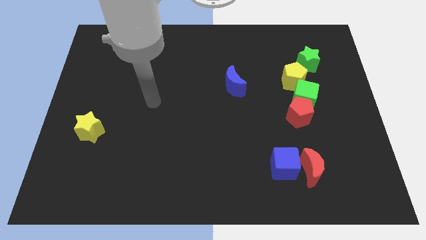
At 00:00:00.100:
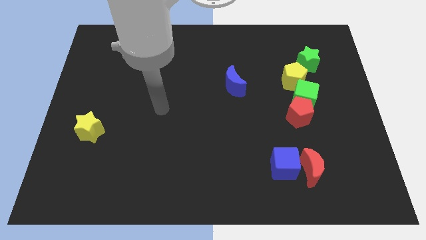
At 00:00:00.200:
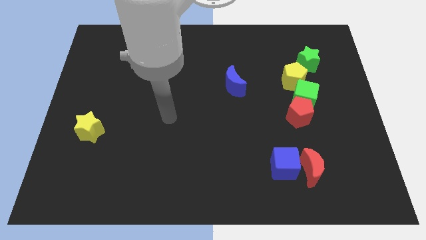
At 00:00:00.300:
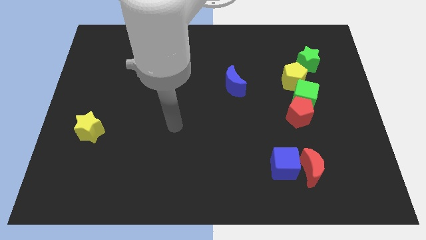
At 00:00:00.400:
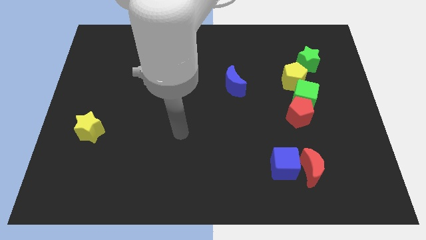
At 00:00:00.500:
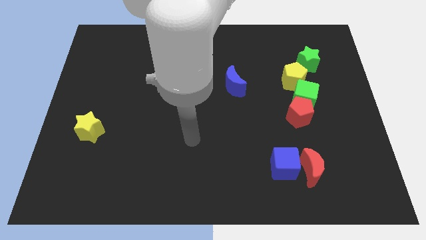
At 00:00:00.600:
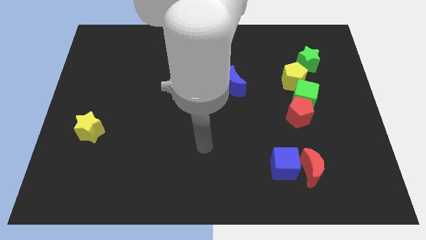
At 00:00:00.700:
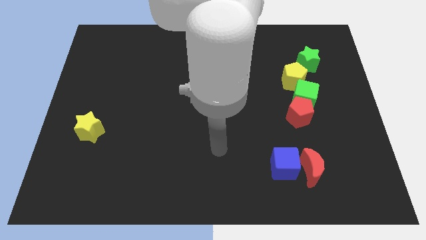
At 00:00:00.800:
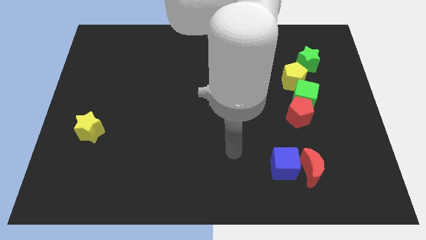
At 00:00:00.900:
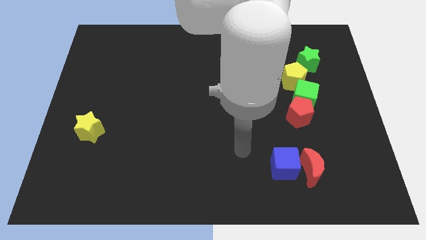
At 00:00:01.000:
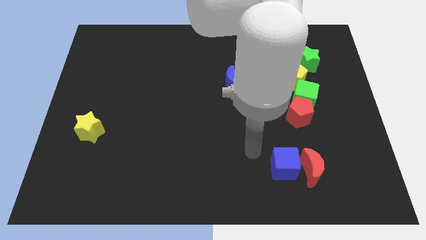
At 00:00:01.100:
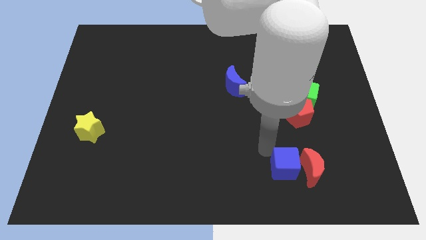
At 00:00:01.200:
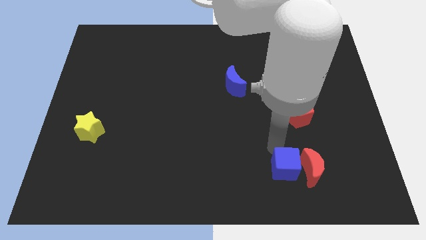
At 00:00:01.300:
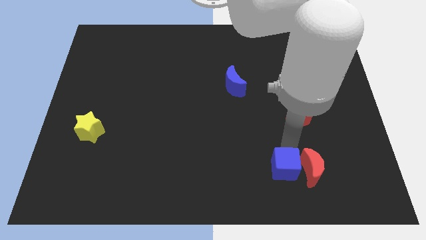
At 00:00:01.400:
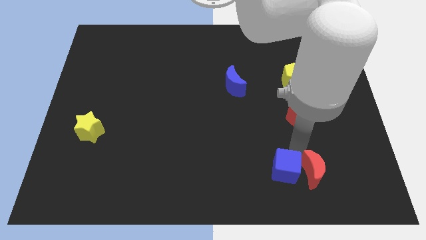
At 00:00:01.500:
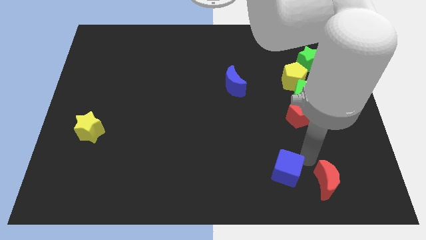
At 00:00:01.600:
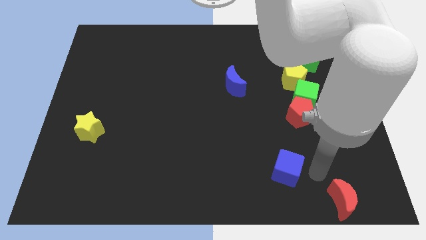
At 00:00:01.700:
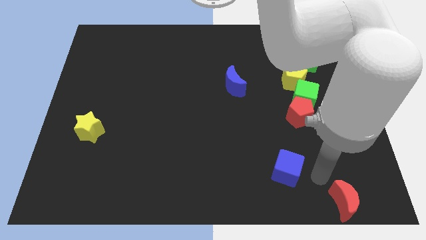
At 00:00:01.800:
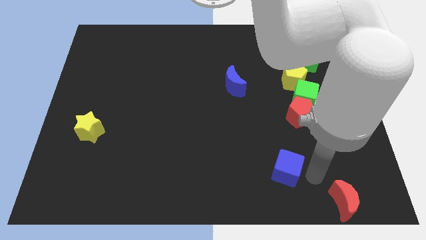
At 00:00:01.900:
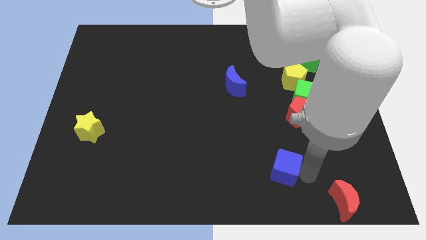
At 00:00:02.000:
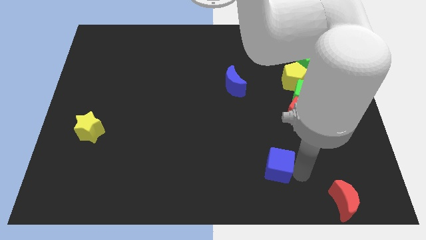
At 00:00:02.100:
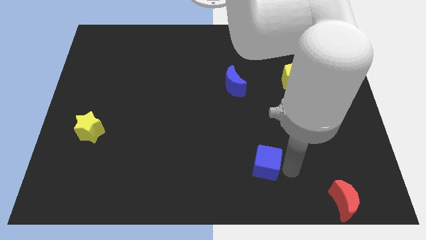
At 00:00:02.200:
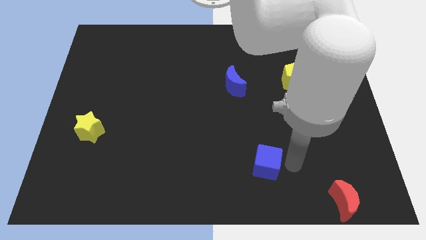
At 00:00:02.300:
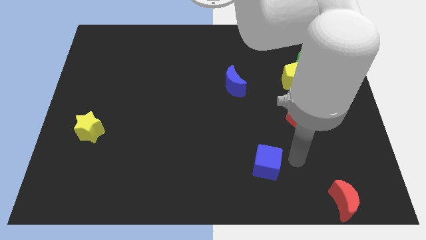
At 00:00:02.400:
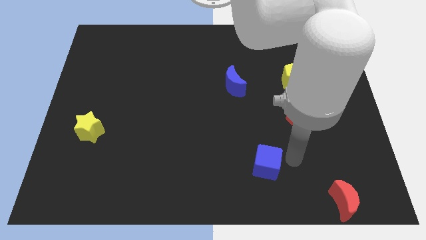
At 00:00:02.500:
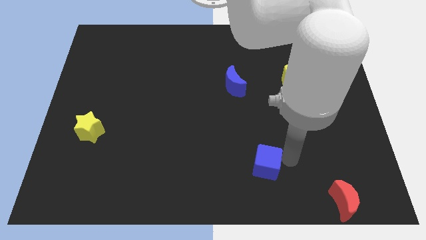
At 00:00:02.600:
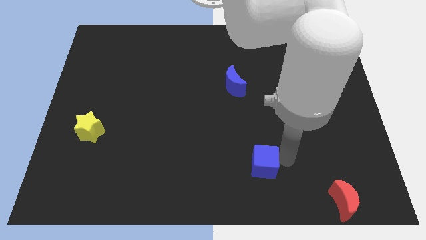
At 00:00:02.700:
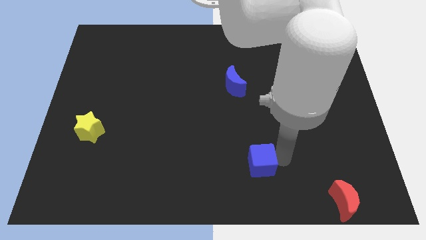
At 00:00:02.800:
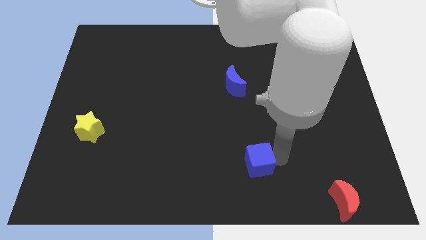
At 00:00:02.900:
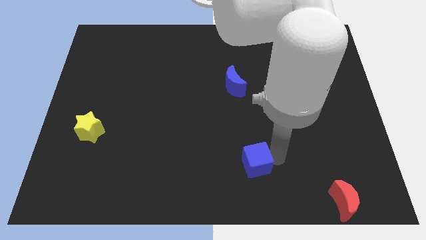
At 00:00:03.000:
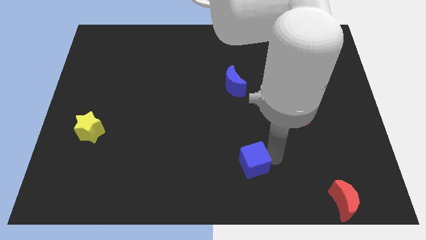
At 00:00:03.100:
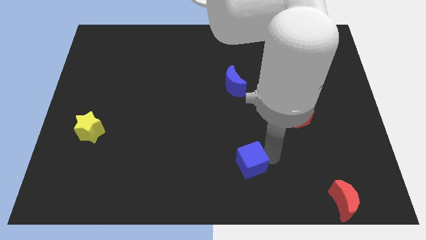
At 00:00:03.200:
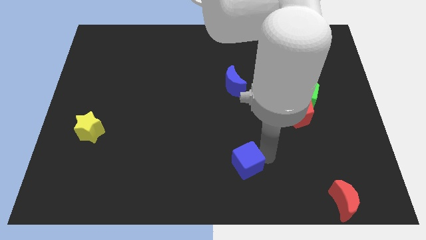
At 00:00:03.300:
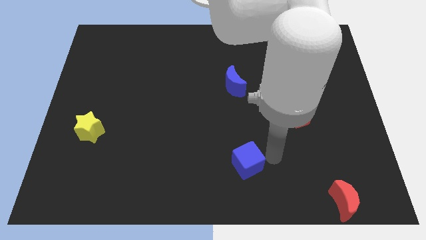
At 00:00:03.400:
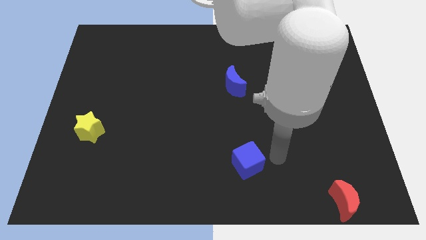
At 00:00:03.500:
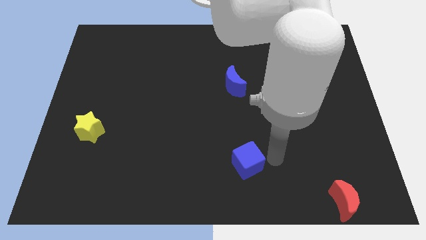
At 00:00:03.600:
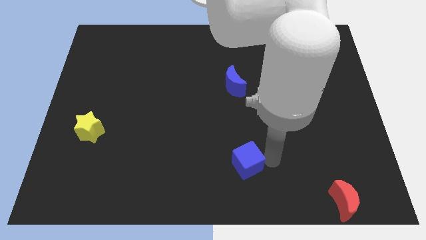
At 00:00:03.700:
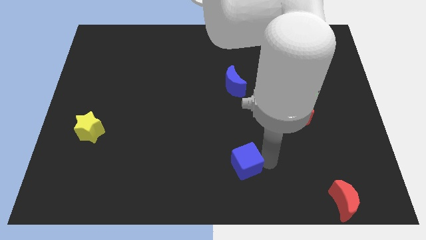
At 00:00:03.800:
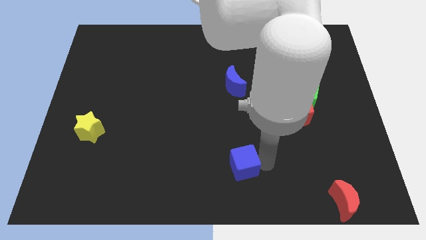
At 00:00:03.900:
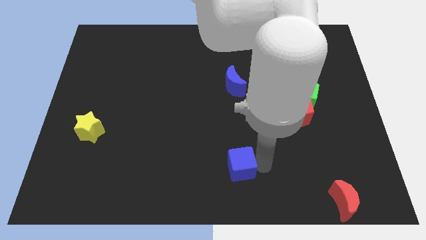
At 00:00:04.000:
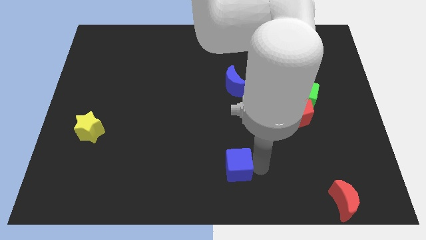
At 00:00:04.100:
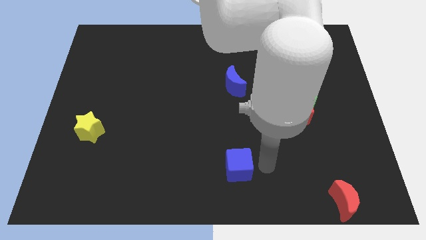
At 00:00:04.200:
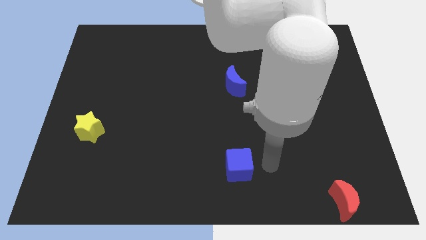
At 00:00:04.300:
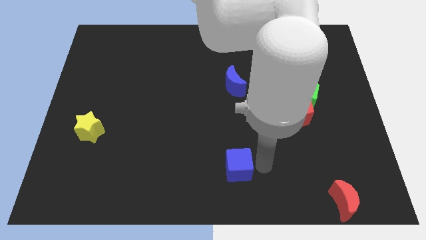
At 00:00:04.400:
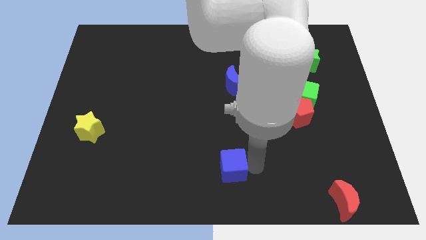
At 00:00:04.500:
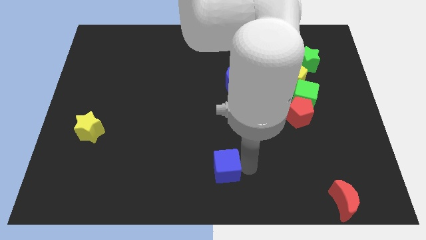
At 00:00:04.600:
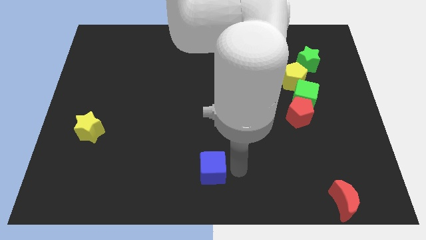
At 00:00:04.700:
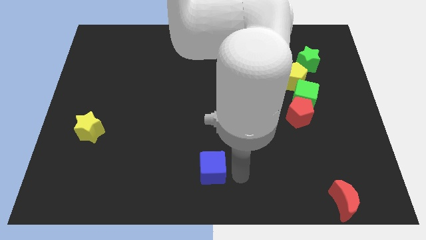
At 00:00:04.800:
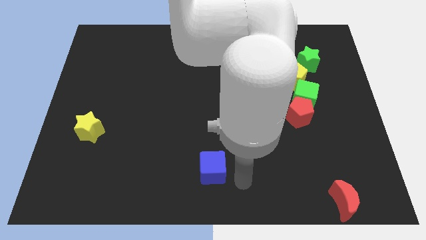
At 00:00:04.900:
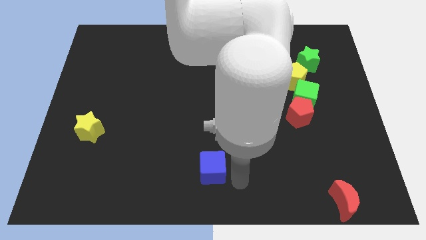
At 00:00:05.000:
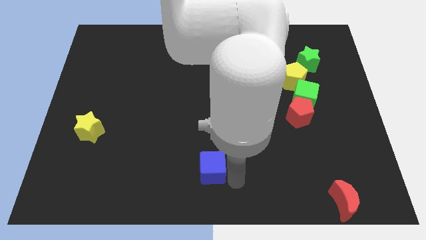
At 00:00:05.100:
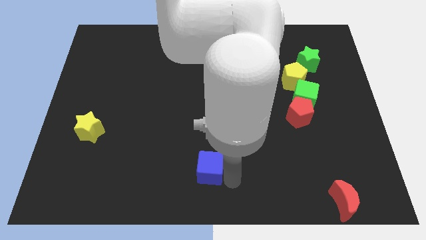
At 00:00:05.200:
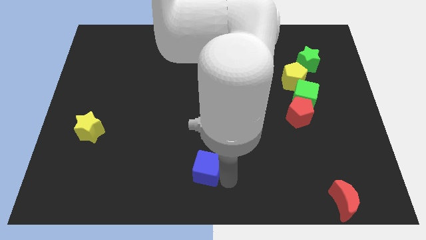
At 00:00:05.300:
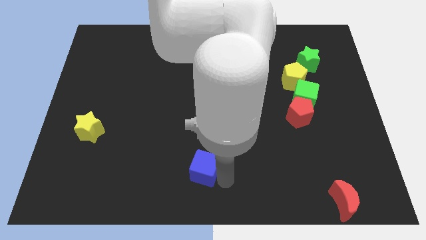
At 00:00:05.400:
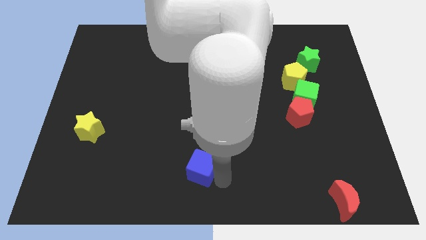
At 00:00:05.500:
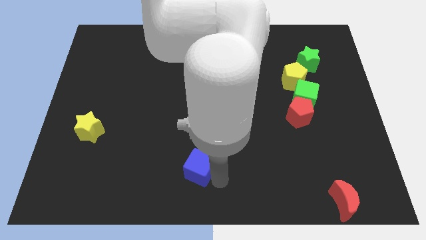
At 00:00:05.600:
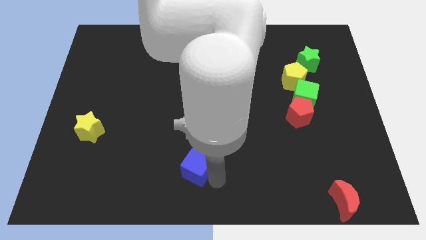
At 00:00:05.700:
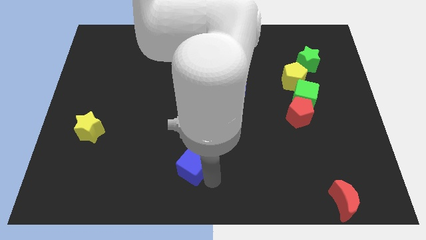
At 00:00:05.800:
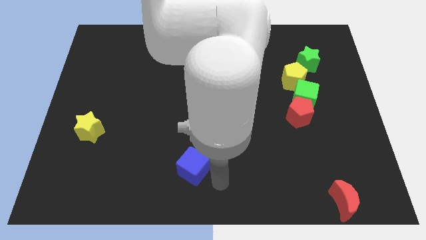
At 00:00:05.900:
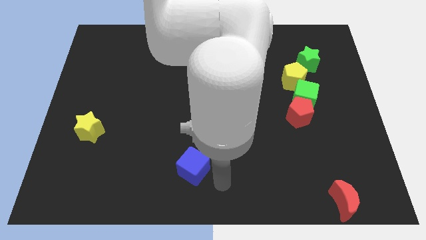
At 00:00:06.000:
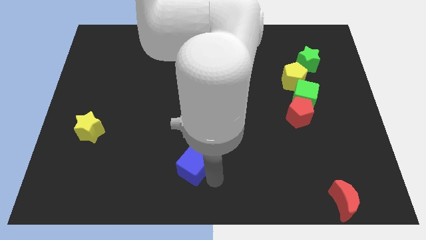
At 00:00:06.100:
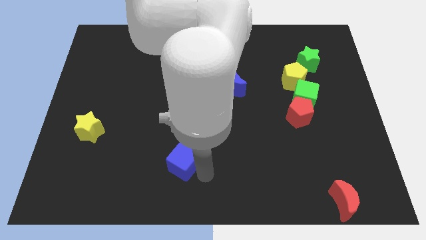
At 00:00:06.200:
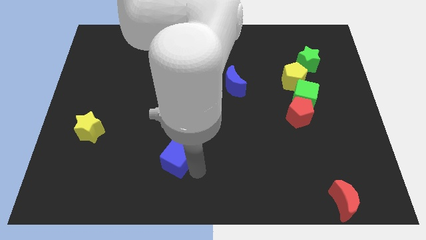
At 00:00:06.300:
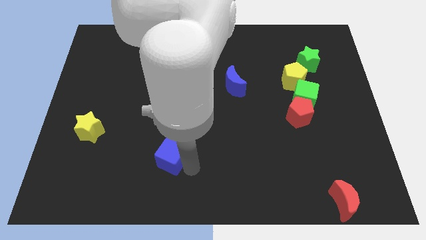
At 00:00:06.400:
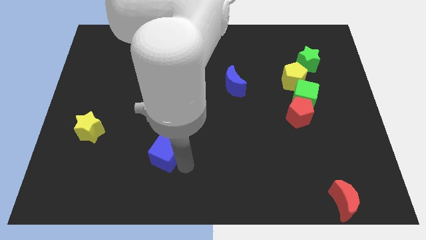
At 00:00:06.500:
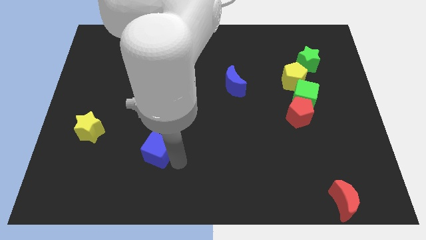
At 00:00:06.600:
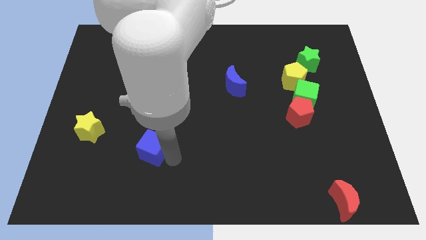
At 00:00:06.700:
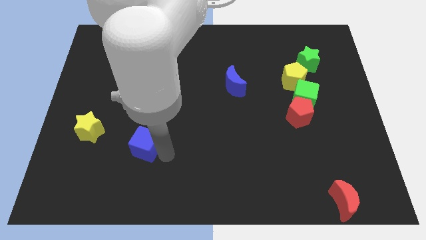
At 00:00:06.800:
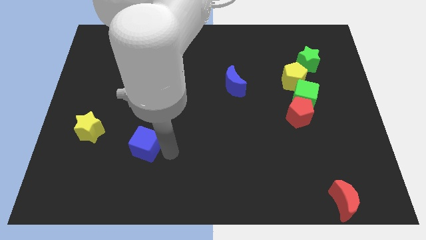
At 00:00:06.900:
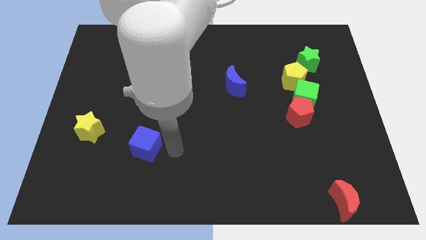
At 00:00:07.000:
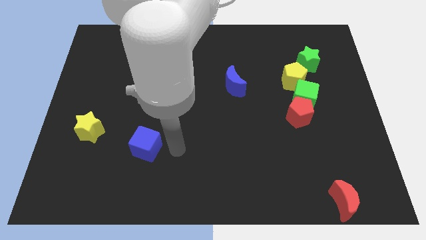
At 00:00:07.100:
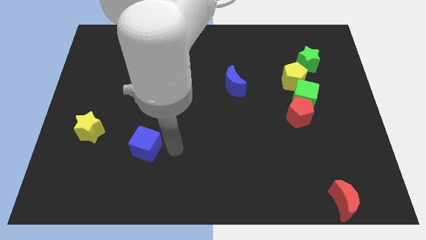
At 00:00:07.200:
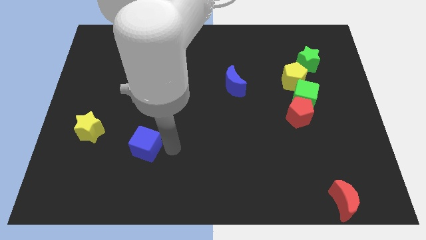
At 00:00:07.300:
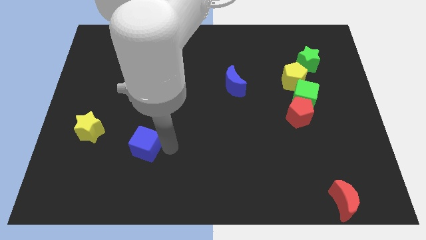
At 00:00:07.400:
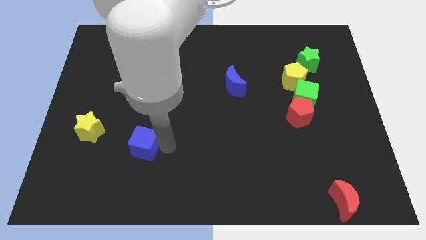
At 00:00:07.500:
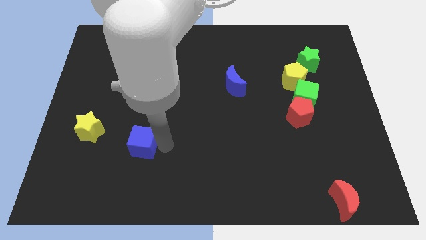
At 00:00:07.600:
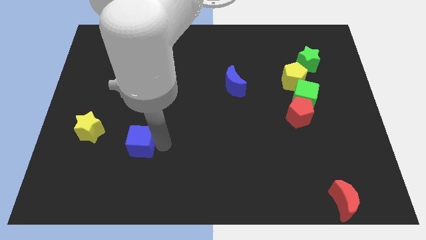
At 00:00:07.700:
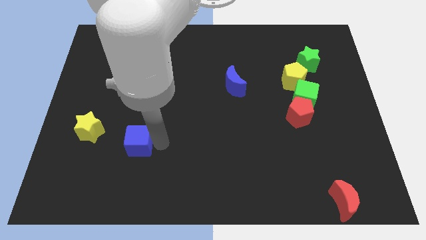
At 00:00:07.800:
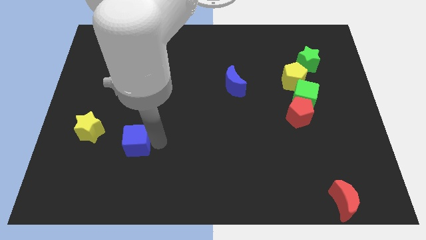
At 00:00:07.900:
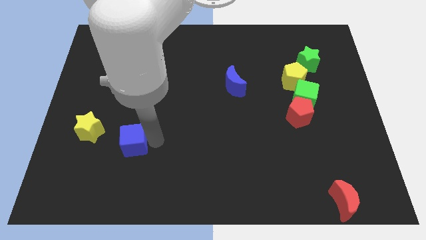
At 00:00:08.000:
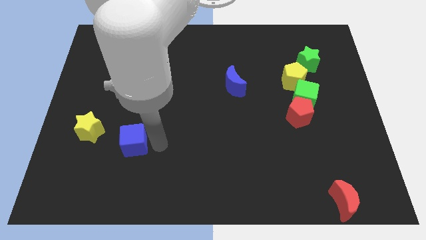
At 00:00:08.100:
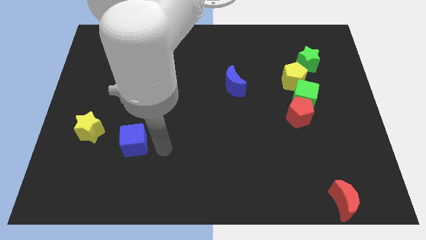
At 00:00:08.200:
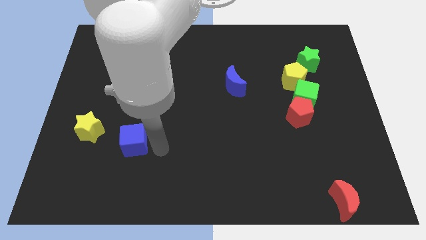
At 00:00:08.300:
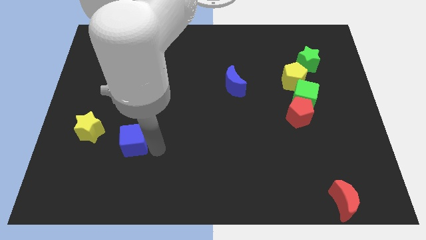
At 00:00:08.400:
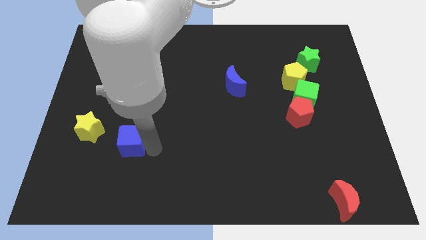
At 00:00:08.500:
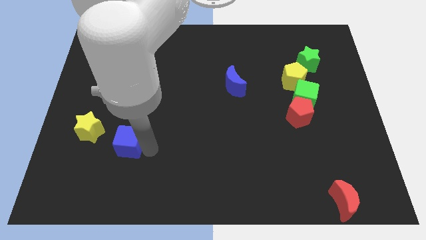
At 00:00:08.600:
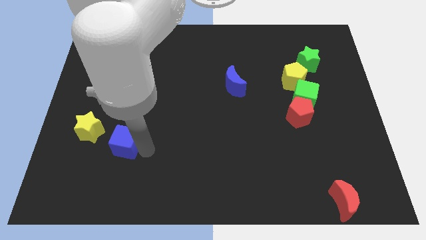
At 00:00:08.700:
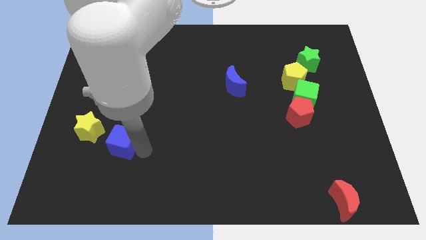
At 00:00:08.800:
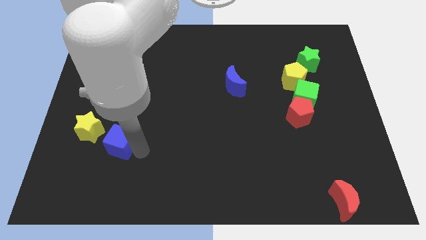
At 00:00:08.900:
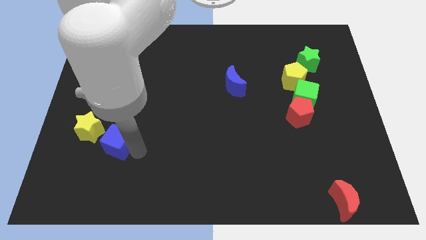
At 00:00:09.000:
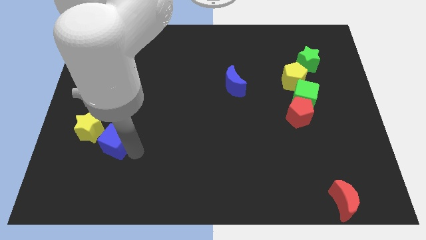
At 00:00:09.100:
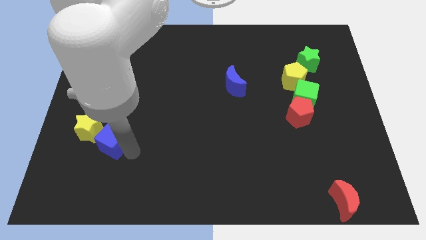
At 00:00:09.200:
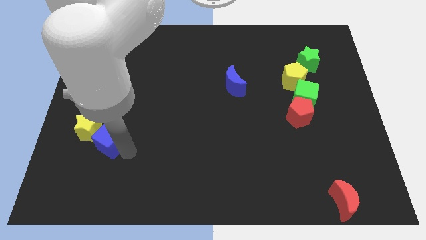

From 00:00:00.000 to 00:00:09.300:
put the blue cube towards the yellow star
